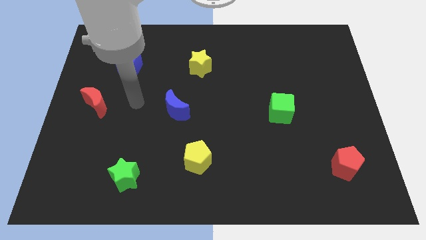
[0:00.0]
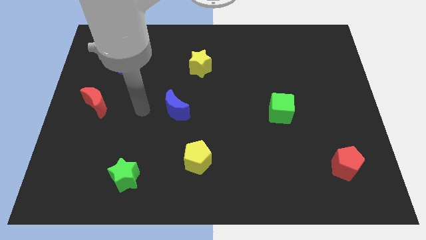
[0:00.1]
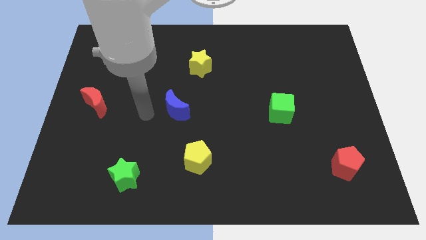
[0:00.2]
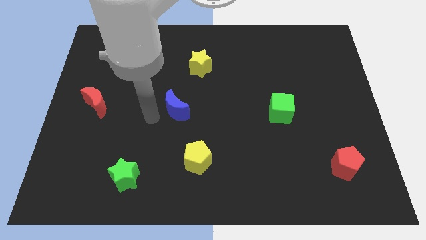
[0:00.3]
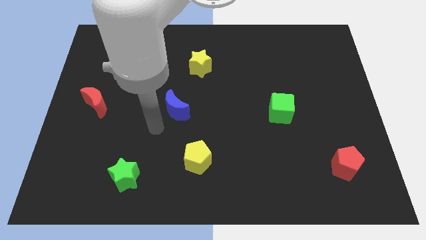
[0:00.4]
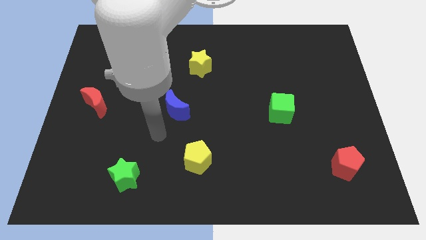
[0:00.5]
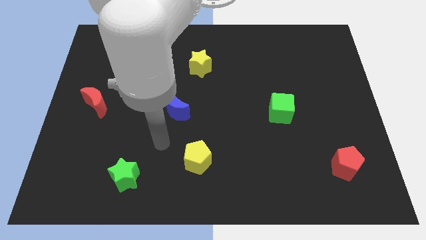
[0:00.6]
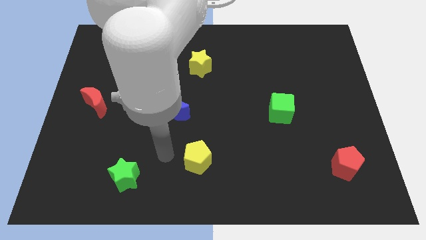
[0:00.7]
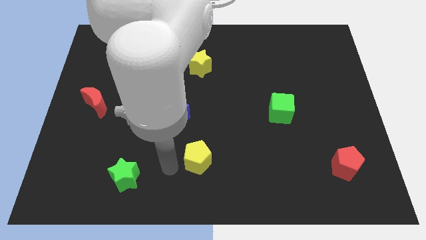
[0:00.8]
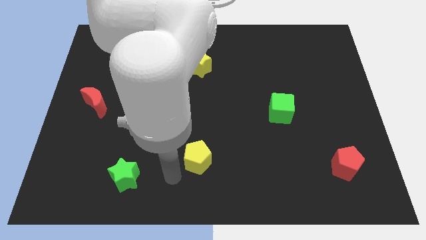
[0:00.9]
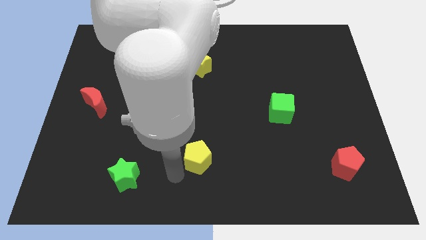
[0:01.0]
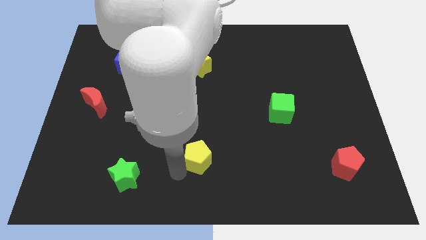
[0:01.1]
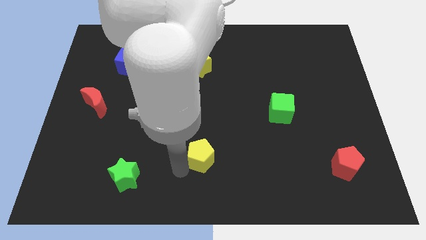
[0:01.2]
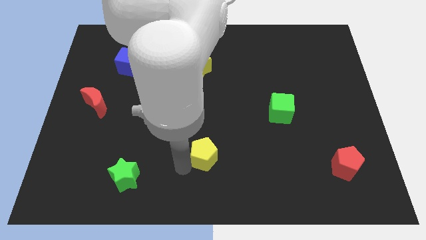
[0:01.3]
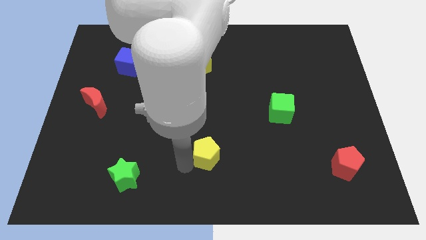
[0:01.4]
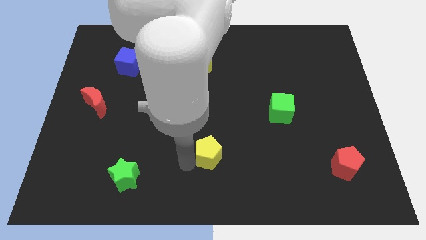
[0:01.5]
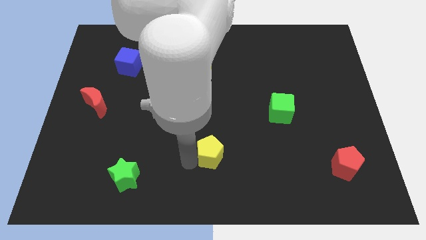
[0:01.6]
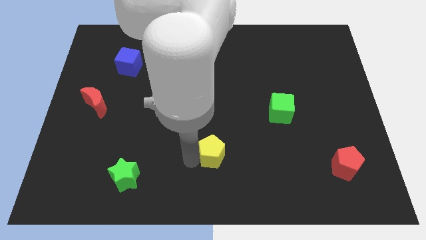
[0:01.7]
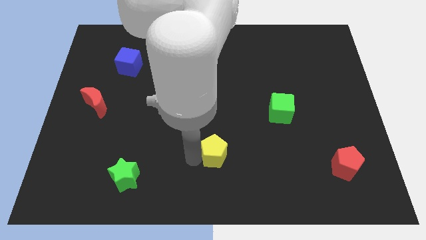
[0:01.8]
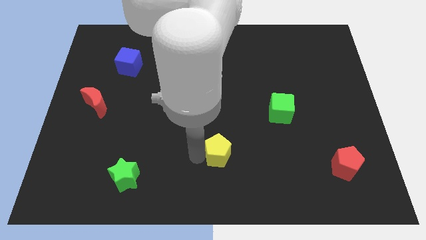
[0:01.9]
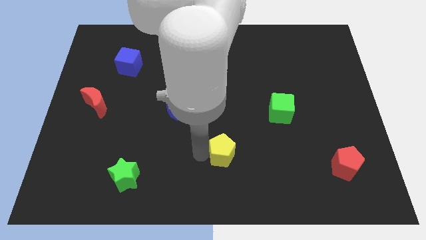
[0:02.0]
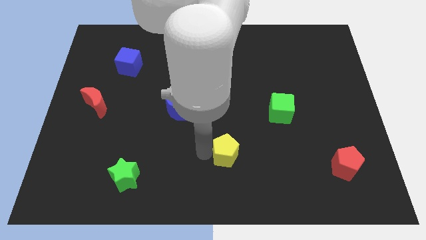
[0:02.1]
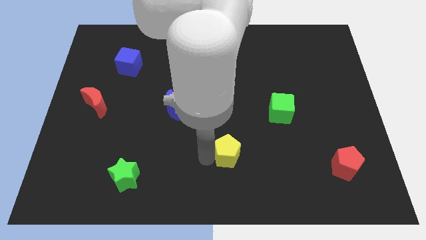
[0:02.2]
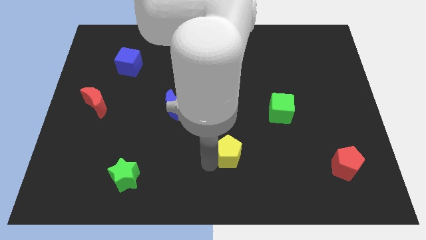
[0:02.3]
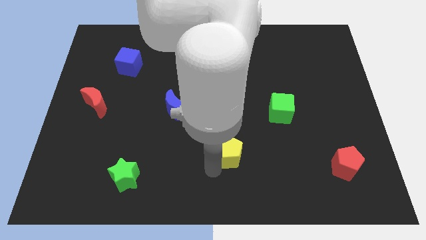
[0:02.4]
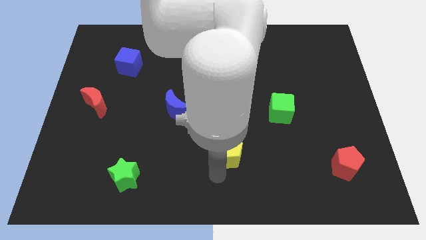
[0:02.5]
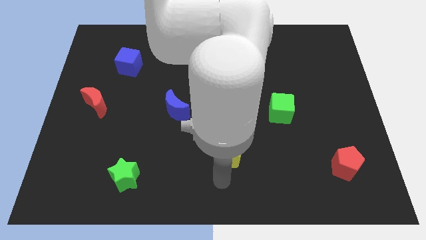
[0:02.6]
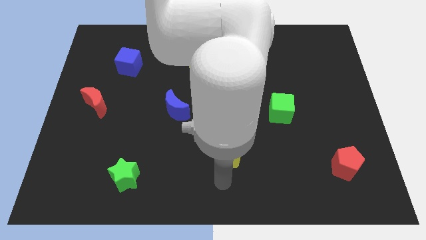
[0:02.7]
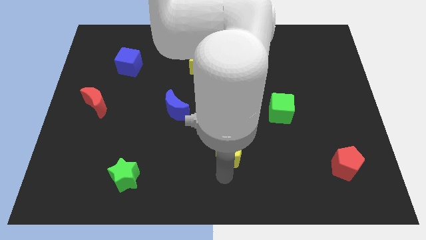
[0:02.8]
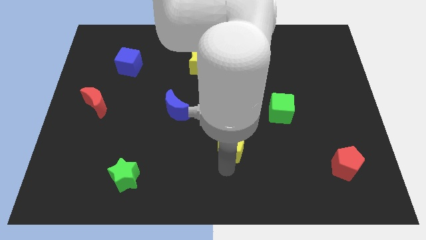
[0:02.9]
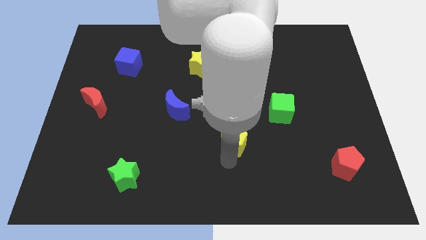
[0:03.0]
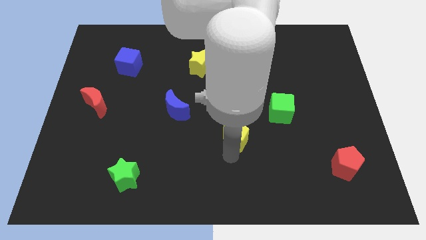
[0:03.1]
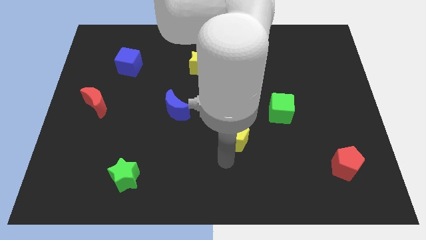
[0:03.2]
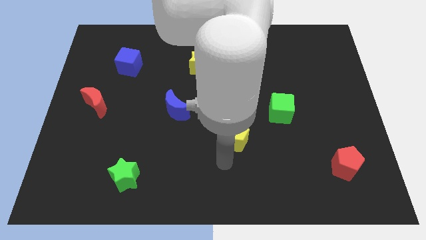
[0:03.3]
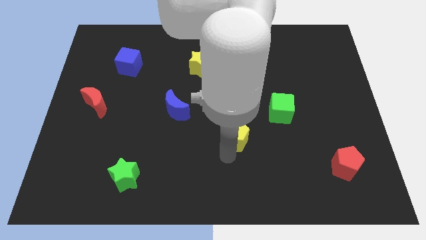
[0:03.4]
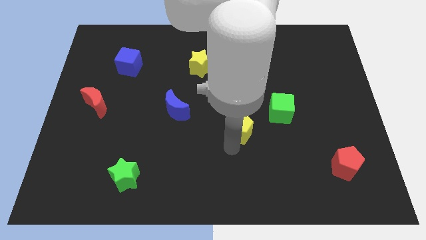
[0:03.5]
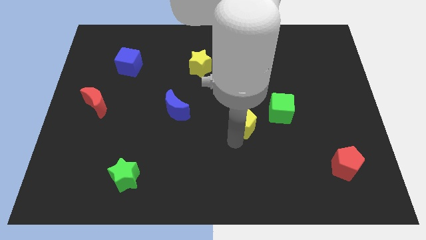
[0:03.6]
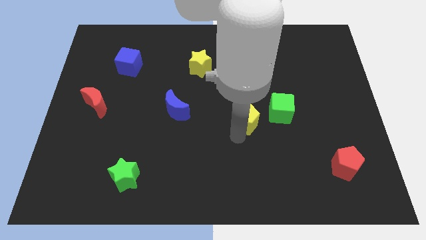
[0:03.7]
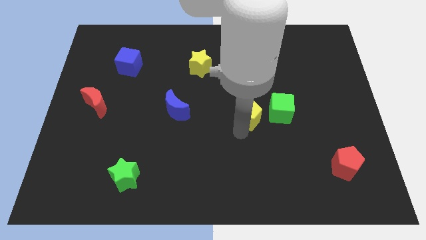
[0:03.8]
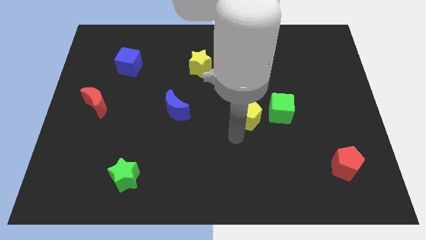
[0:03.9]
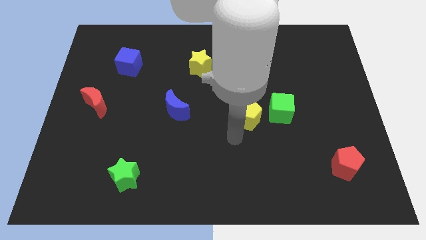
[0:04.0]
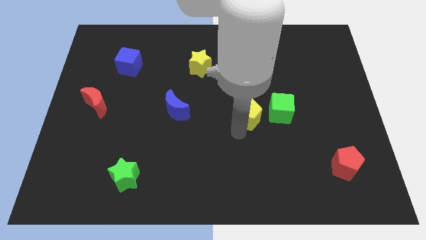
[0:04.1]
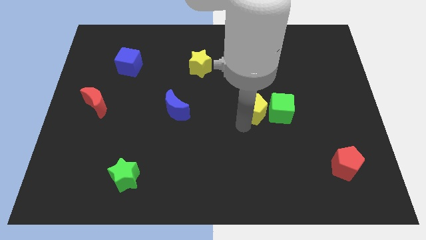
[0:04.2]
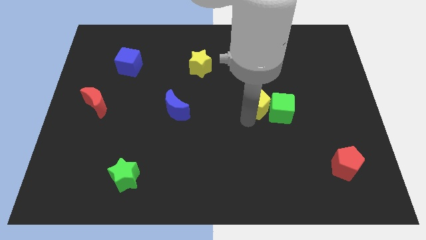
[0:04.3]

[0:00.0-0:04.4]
push the yellow pentagon upwards and to the right diagonally

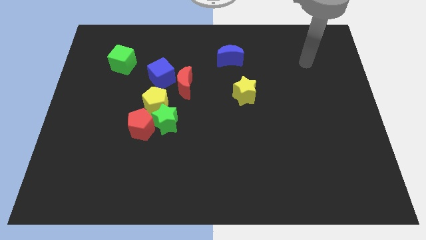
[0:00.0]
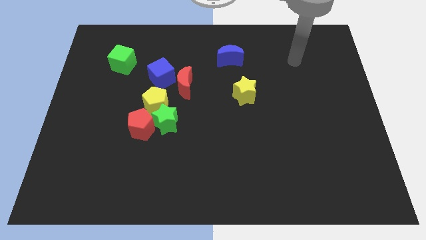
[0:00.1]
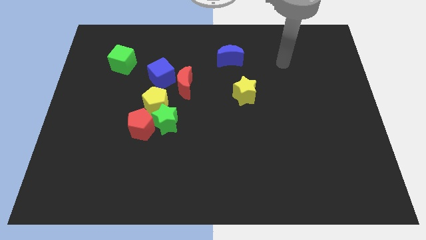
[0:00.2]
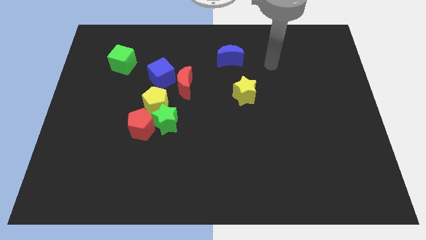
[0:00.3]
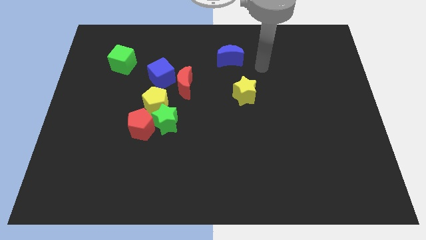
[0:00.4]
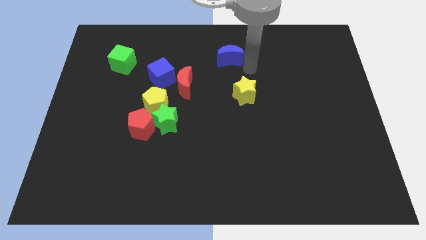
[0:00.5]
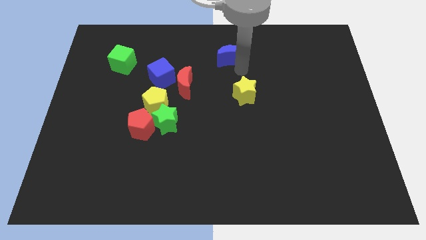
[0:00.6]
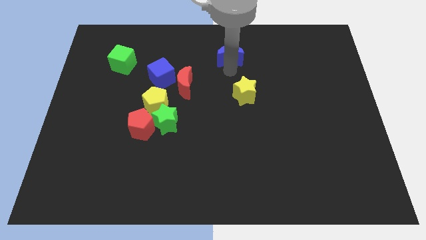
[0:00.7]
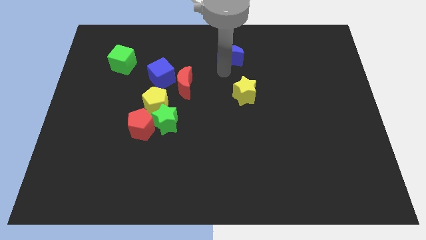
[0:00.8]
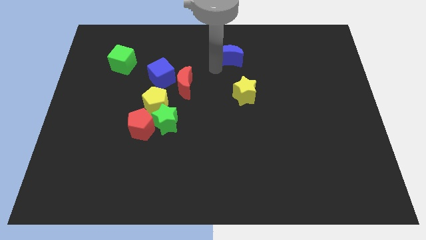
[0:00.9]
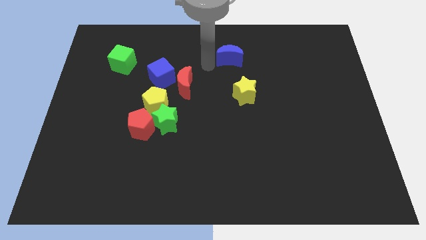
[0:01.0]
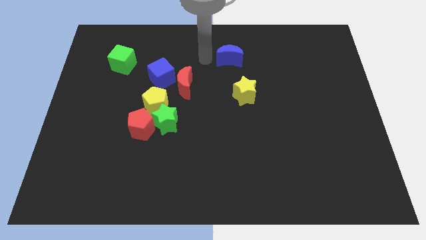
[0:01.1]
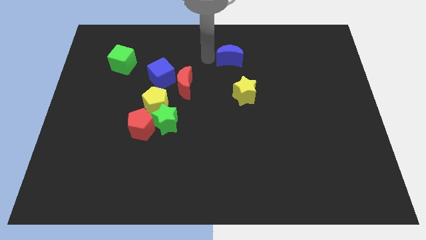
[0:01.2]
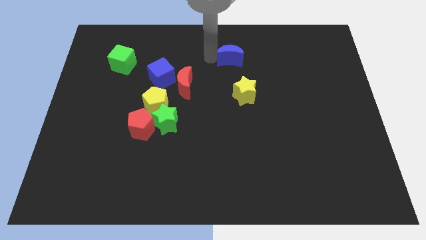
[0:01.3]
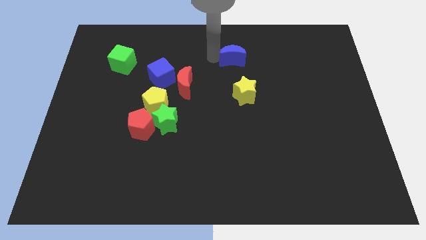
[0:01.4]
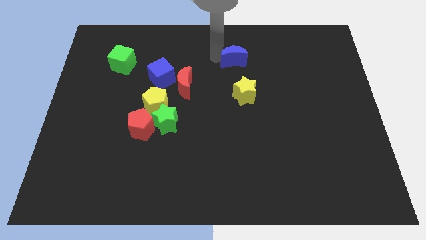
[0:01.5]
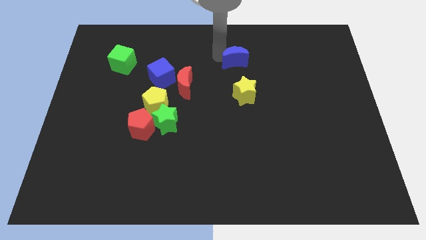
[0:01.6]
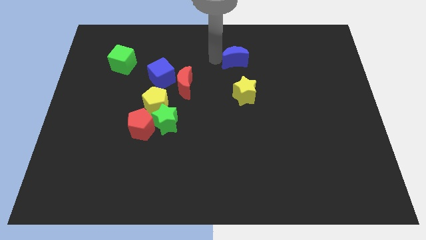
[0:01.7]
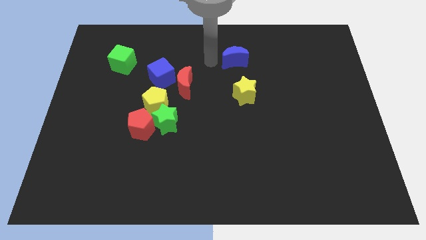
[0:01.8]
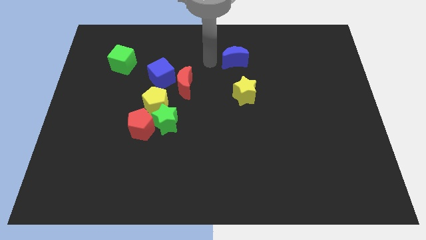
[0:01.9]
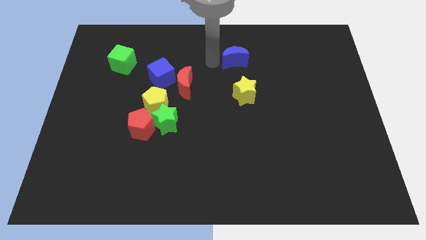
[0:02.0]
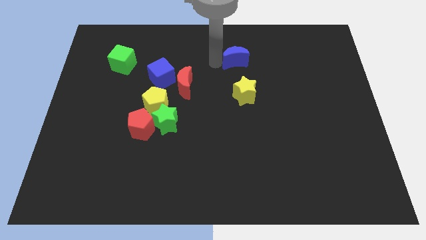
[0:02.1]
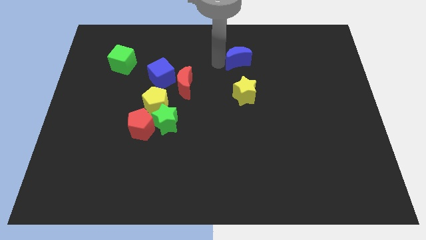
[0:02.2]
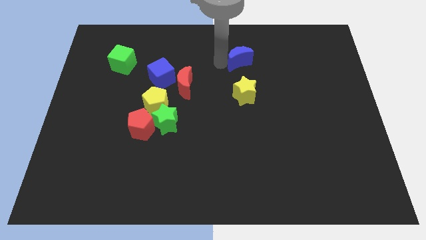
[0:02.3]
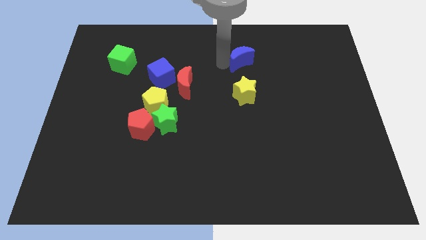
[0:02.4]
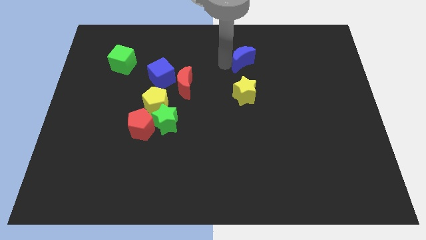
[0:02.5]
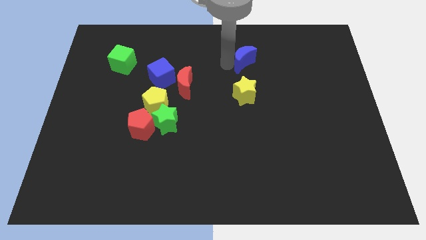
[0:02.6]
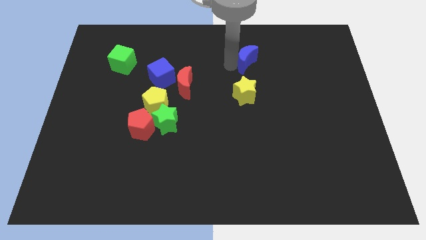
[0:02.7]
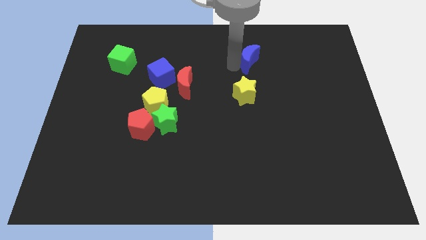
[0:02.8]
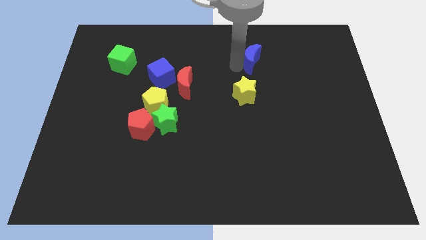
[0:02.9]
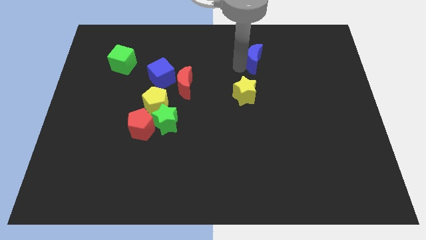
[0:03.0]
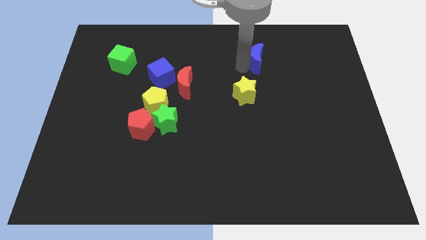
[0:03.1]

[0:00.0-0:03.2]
slightly slide the blue moon to the right

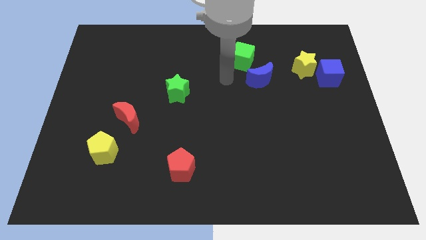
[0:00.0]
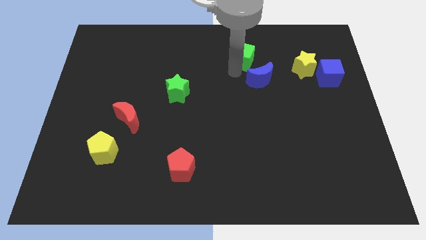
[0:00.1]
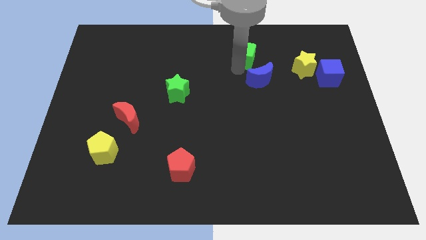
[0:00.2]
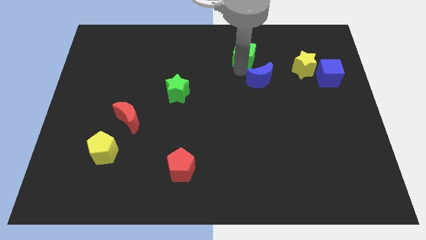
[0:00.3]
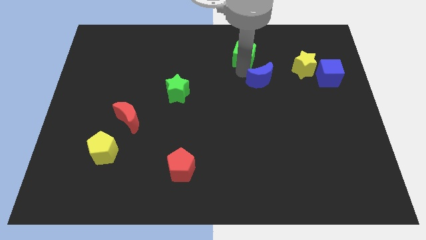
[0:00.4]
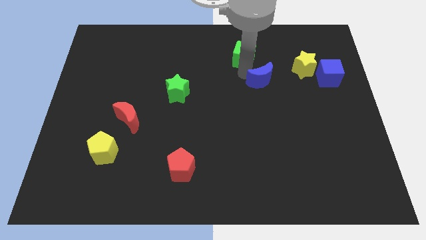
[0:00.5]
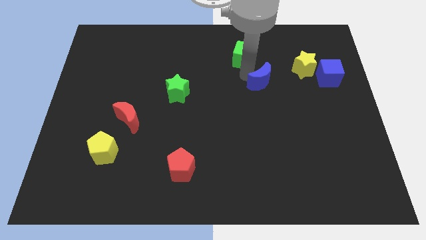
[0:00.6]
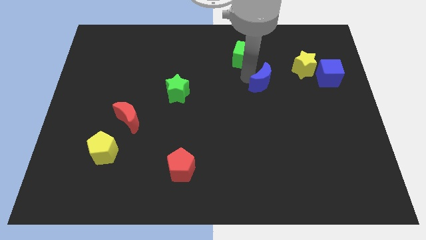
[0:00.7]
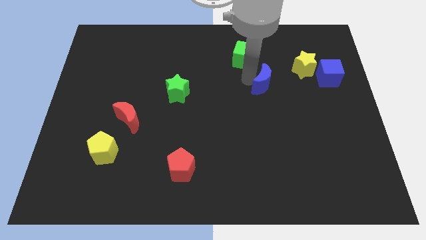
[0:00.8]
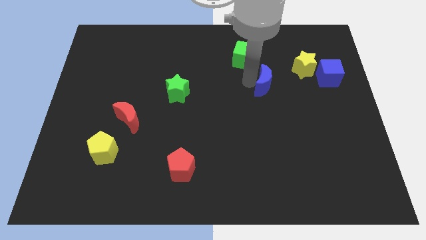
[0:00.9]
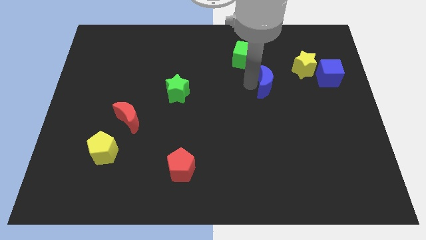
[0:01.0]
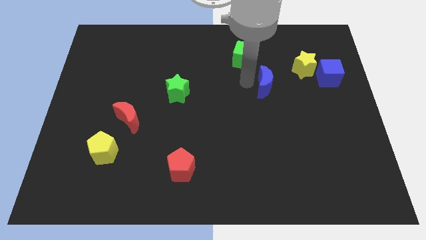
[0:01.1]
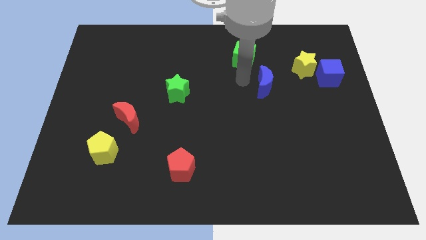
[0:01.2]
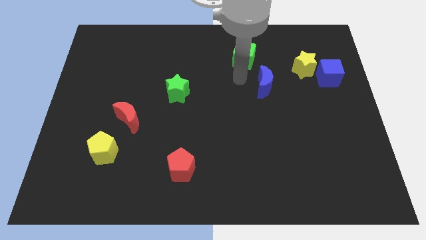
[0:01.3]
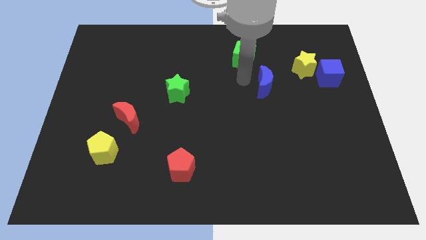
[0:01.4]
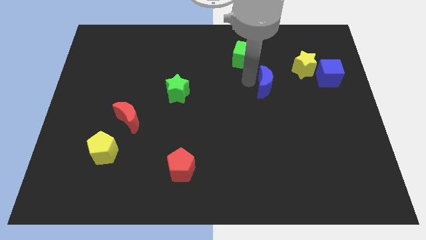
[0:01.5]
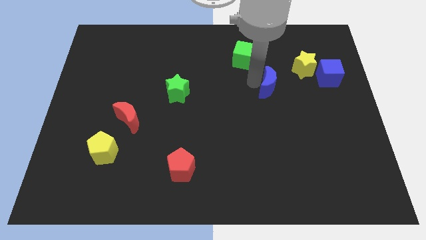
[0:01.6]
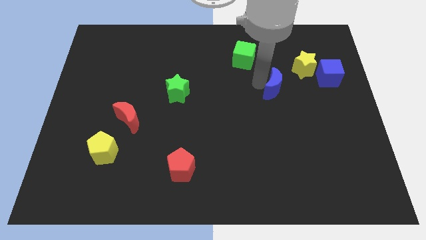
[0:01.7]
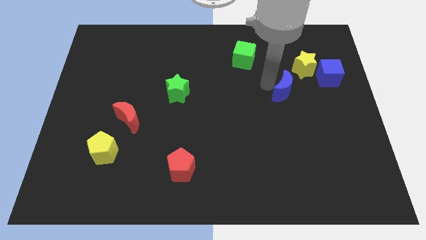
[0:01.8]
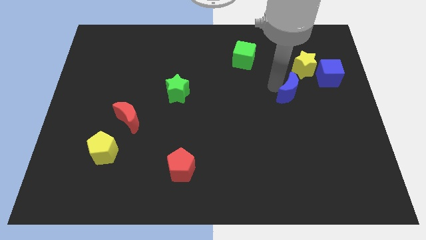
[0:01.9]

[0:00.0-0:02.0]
push the blue moon a little bit downwards and then to the right
